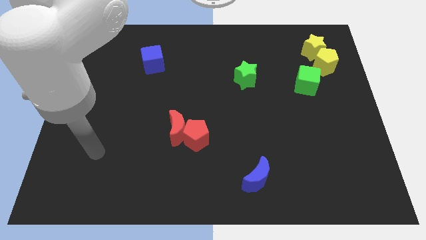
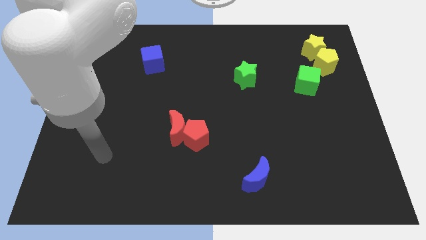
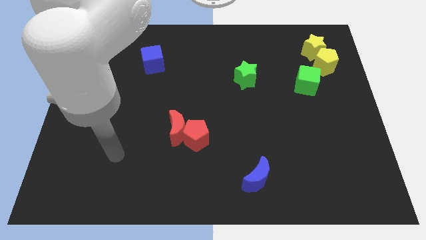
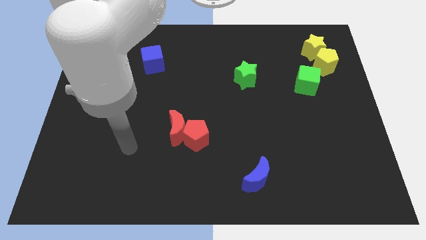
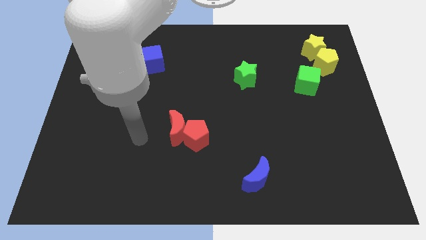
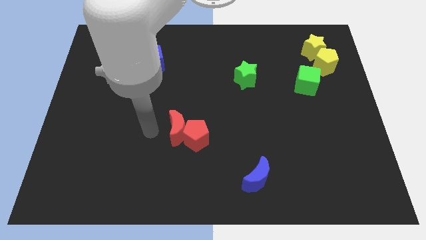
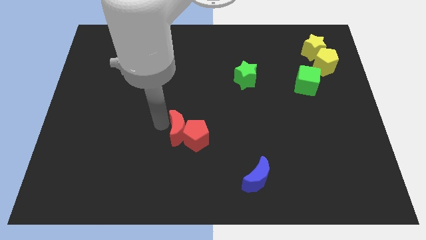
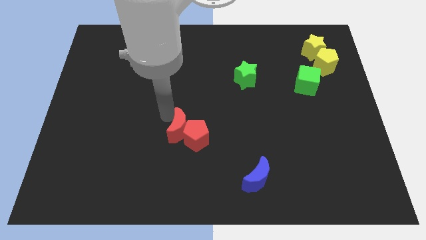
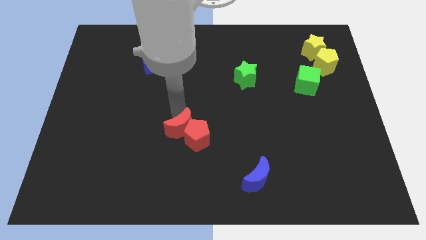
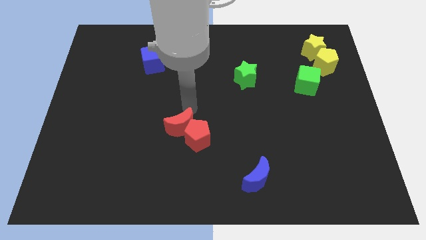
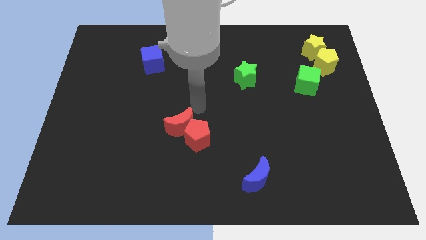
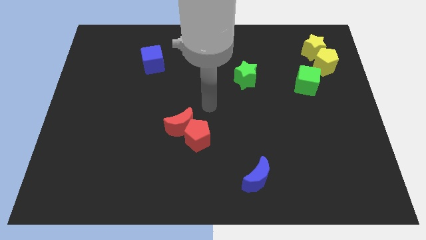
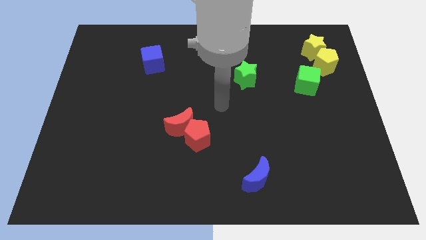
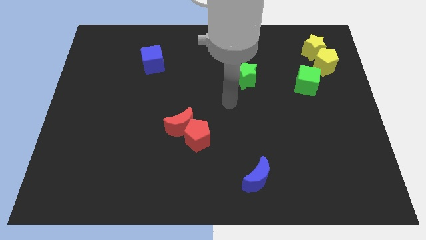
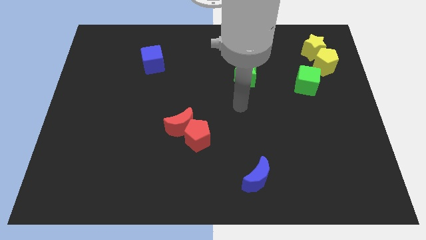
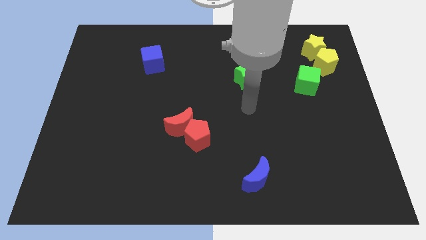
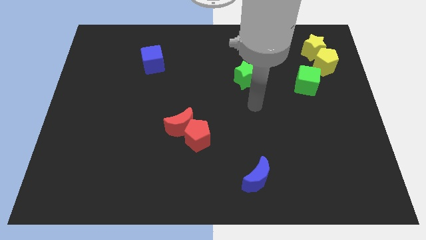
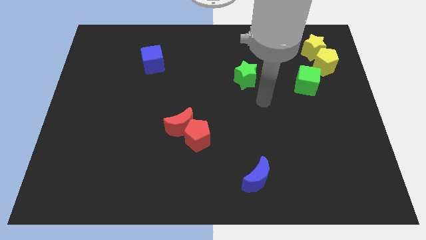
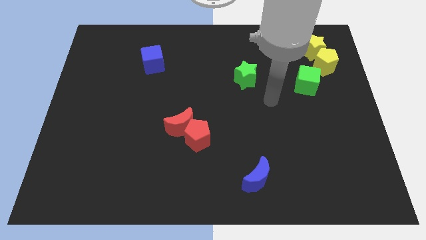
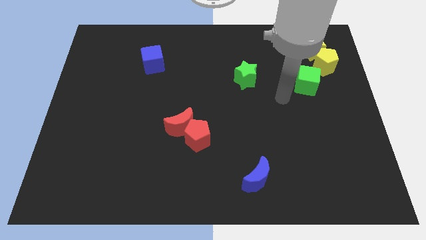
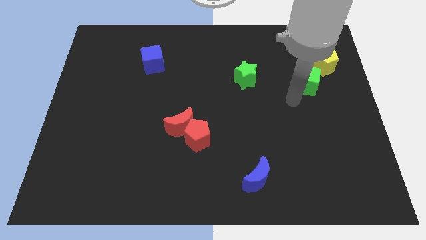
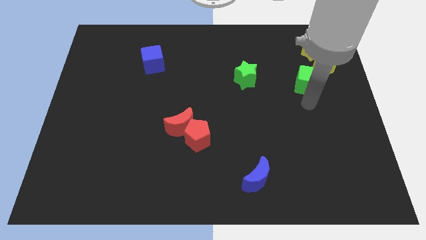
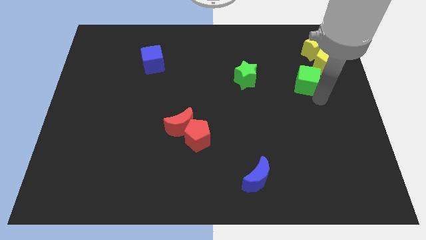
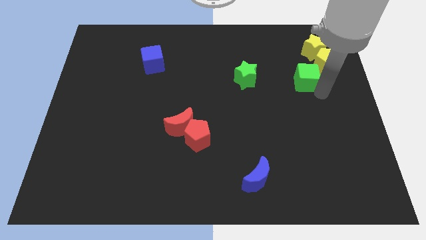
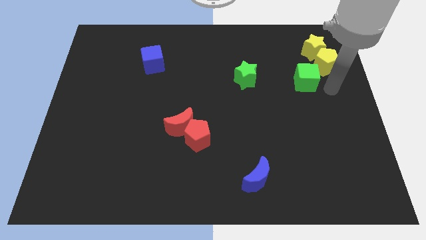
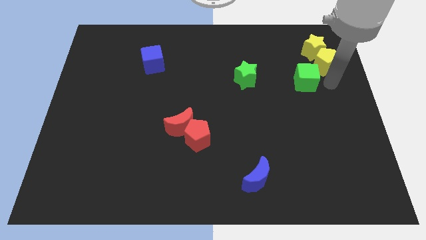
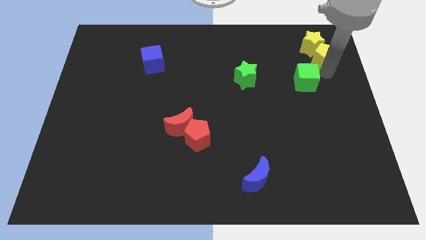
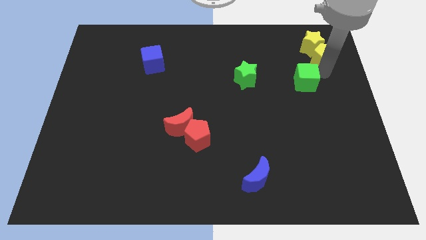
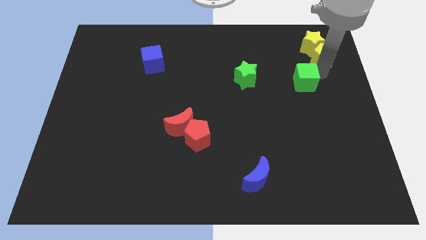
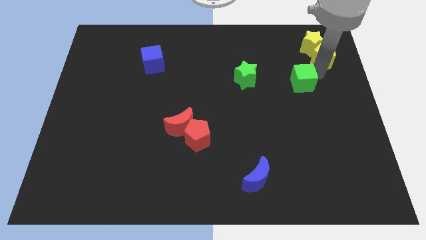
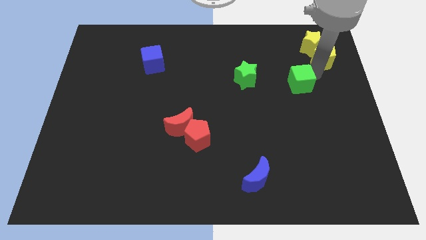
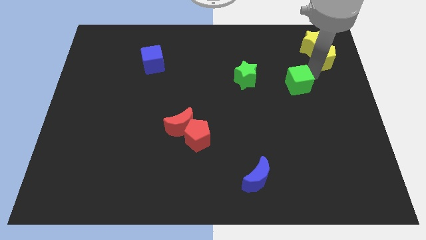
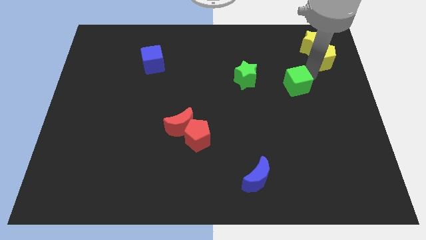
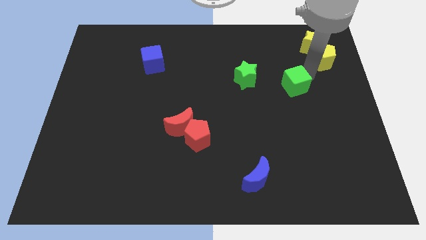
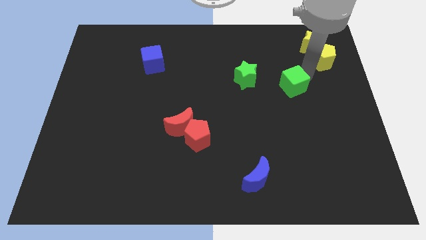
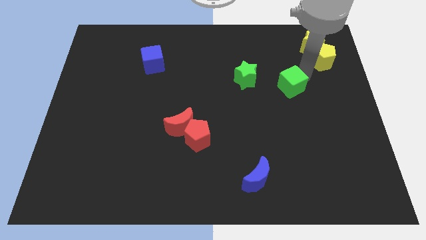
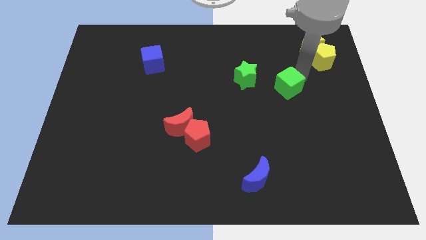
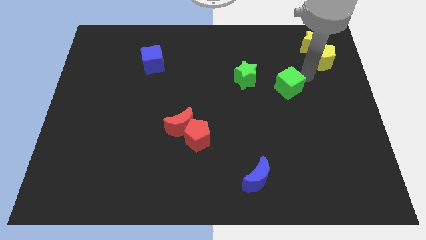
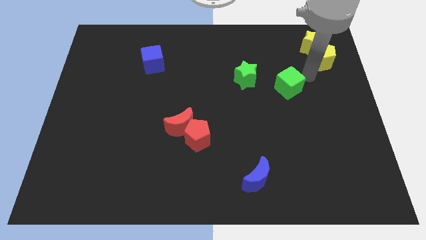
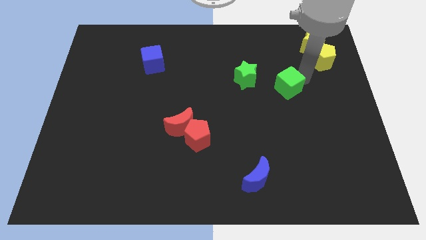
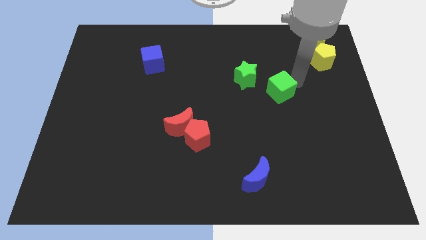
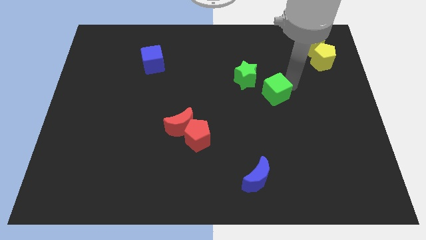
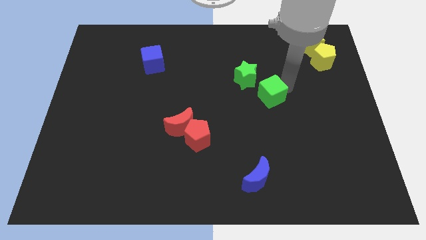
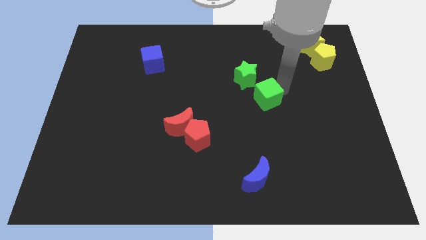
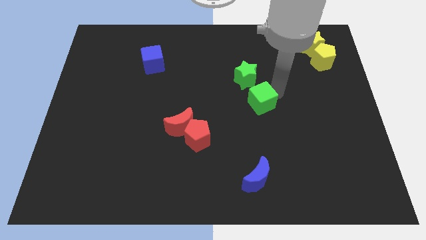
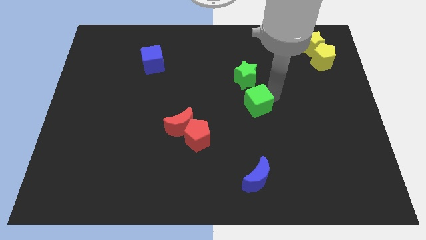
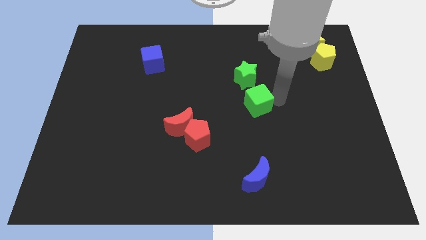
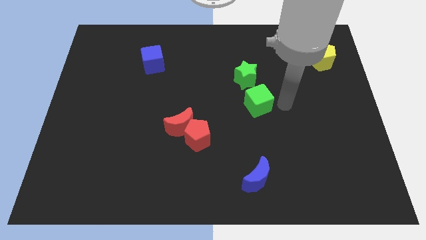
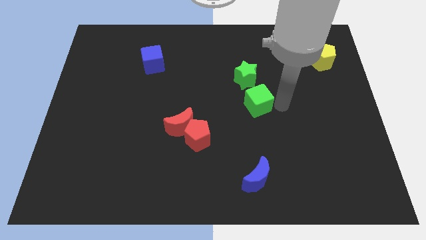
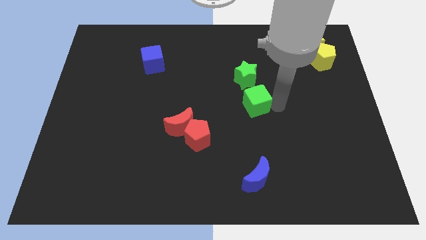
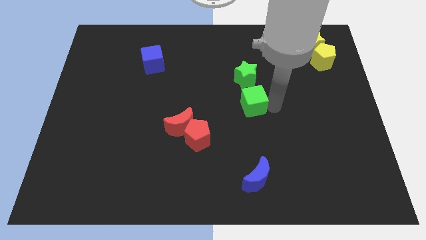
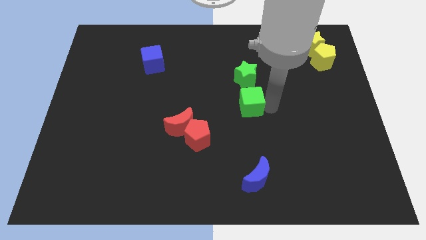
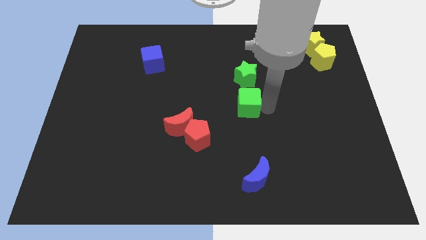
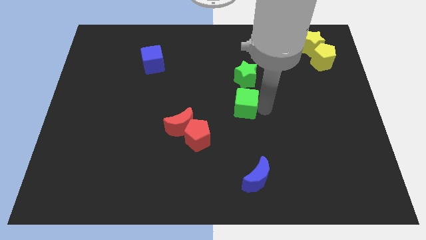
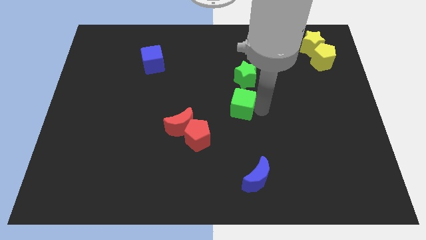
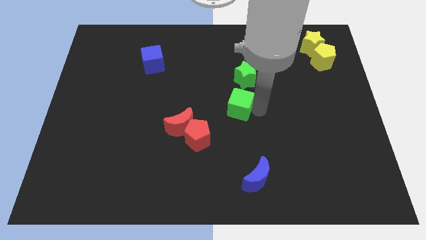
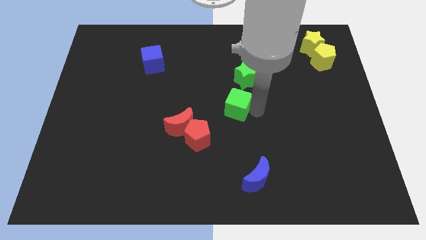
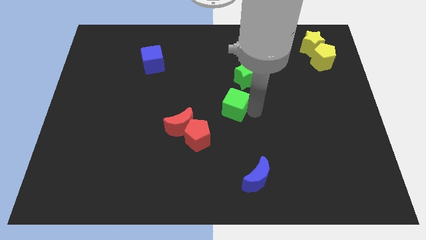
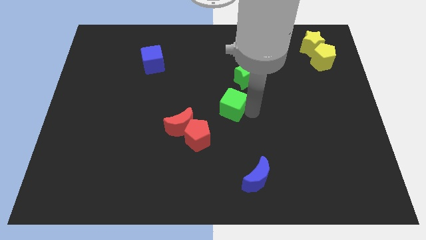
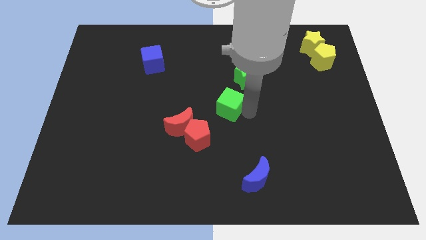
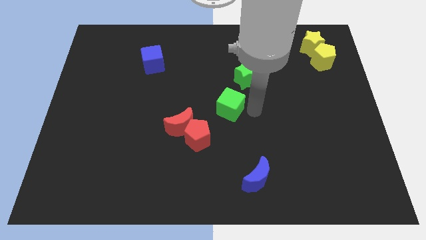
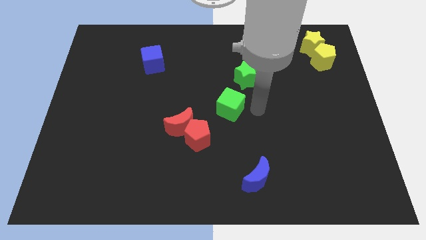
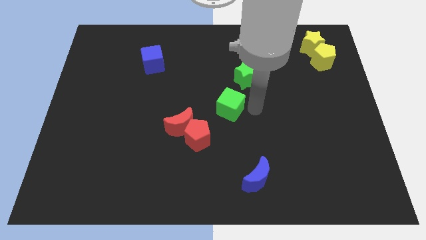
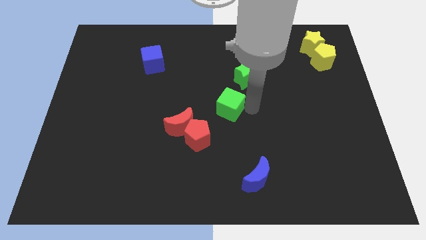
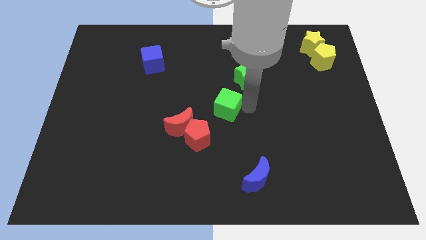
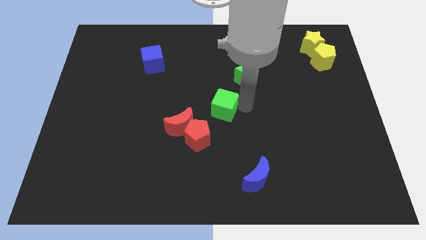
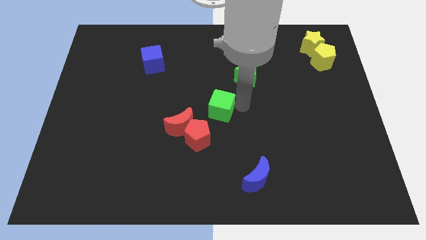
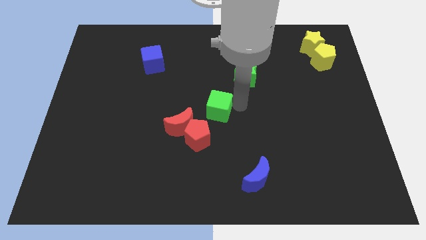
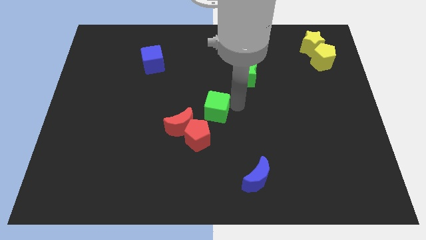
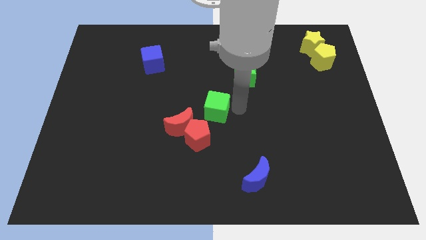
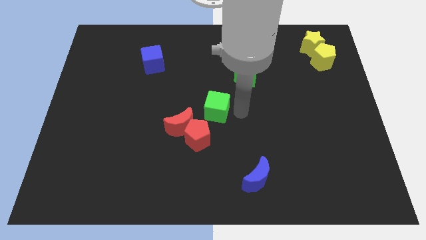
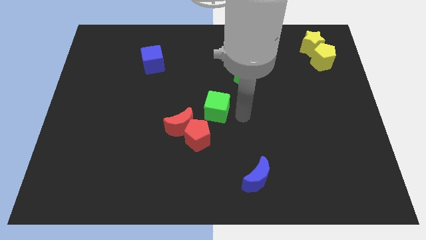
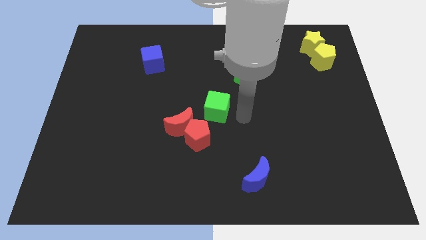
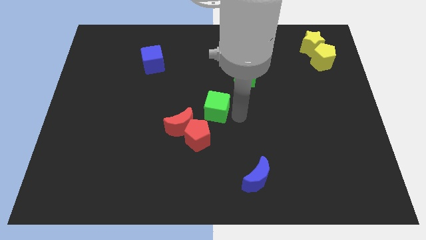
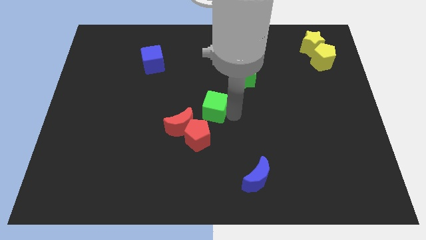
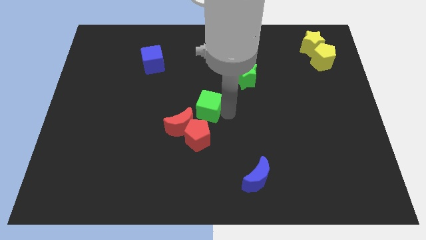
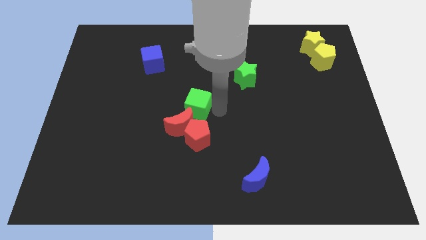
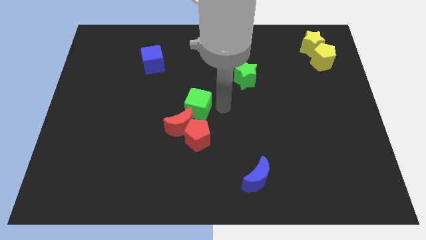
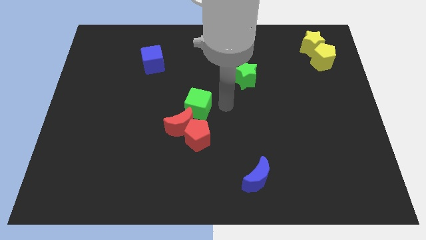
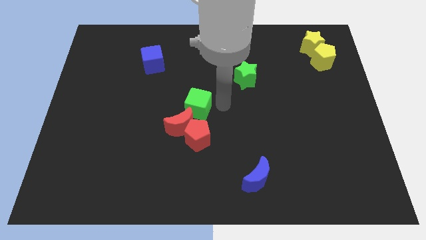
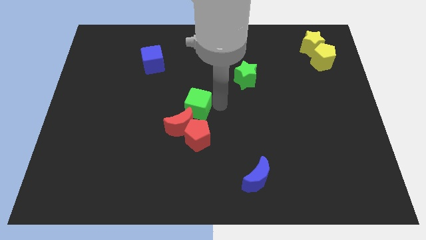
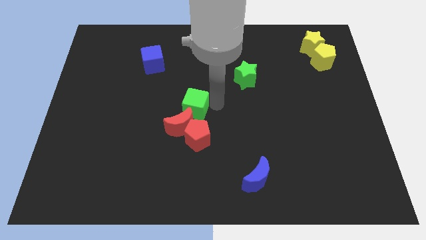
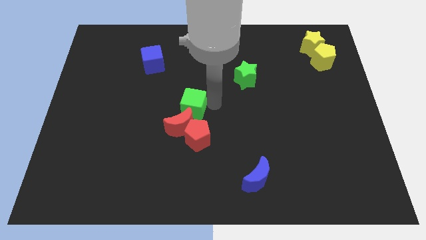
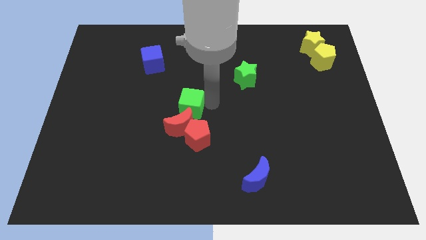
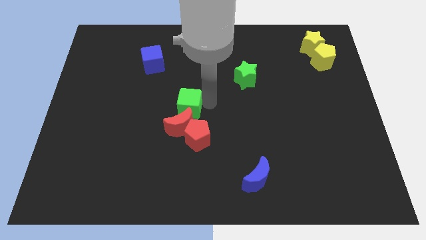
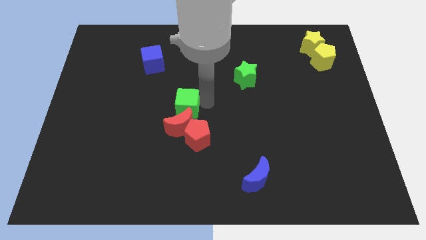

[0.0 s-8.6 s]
move the green cube to the top left side of the red moon
